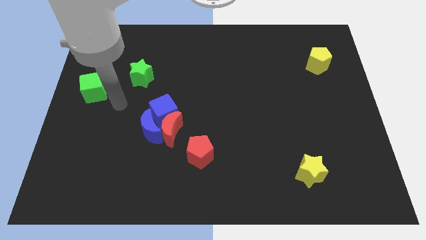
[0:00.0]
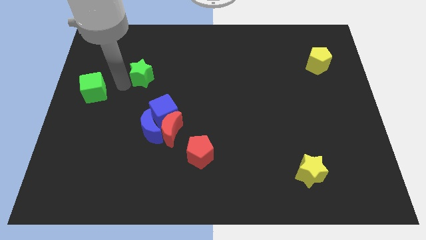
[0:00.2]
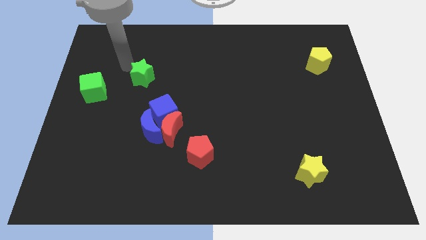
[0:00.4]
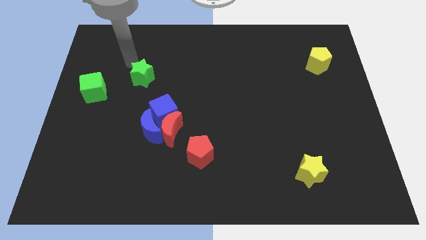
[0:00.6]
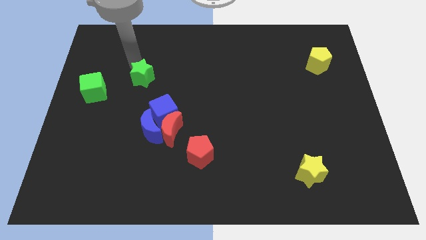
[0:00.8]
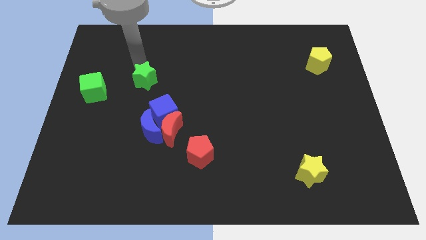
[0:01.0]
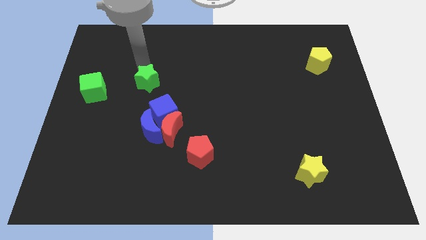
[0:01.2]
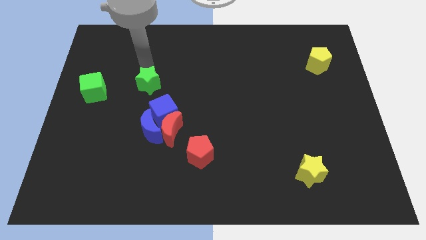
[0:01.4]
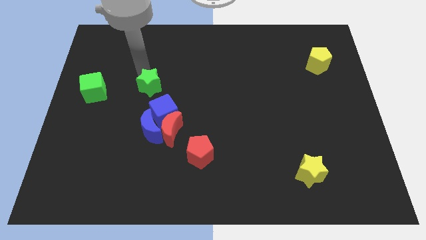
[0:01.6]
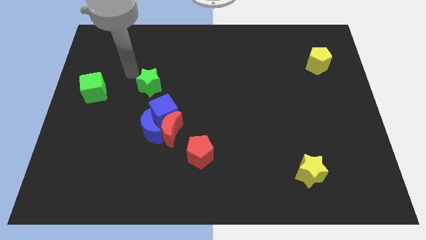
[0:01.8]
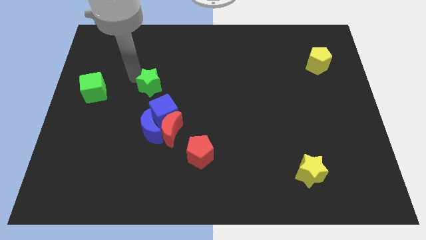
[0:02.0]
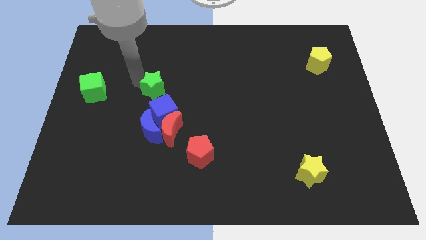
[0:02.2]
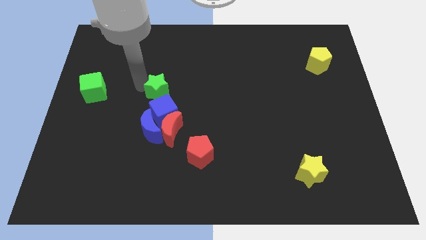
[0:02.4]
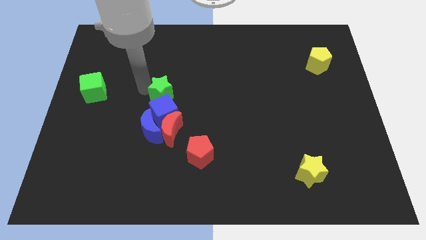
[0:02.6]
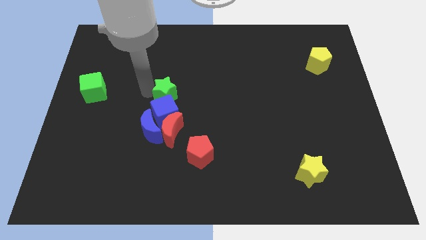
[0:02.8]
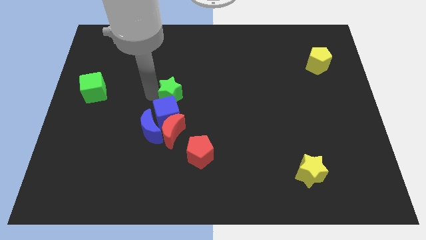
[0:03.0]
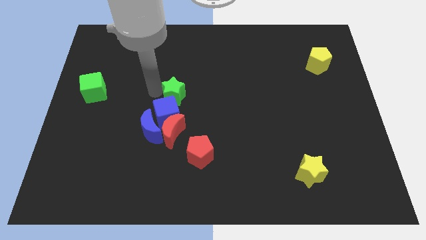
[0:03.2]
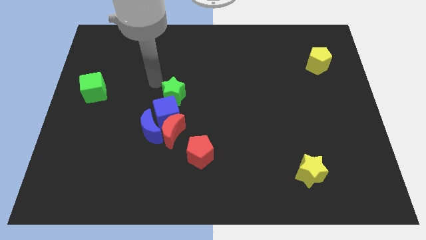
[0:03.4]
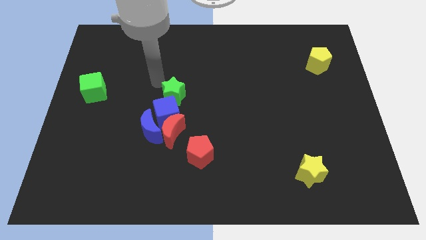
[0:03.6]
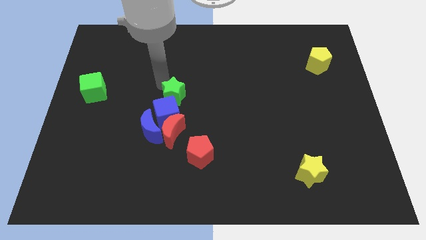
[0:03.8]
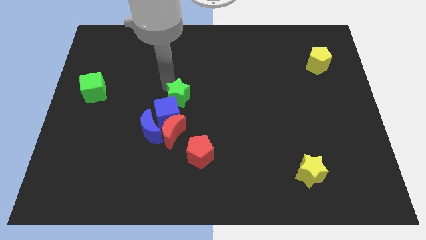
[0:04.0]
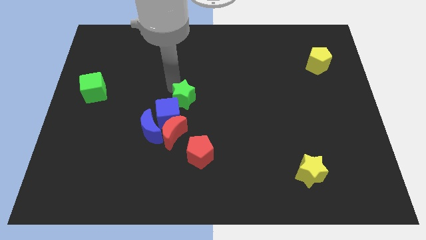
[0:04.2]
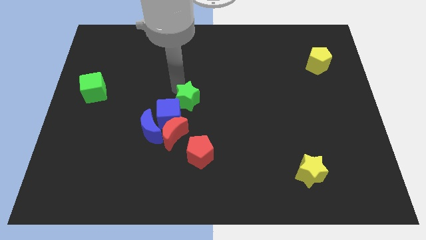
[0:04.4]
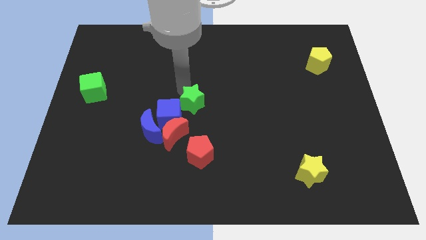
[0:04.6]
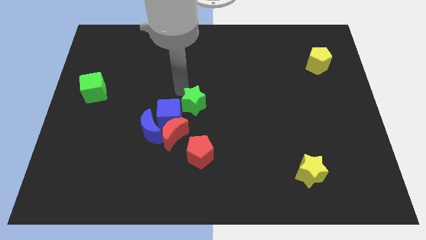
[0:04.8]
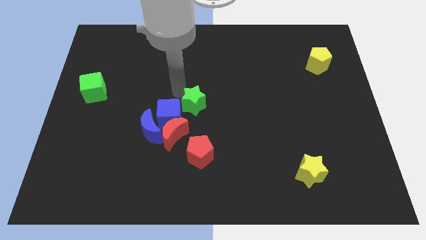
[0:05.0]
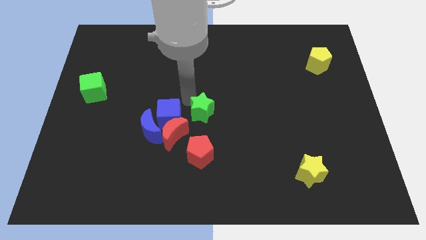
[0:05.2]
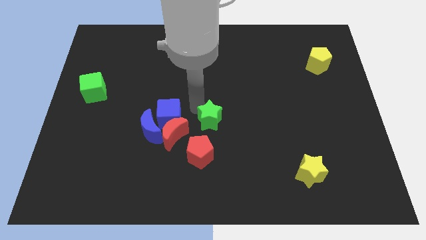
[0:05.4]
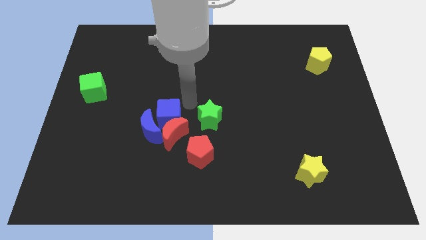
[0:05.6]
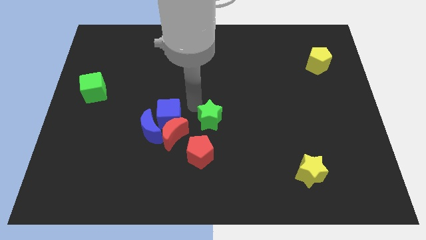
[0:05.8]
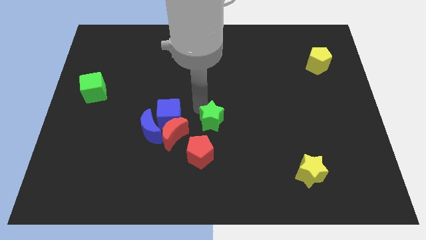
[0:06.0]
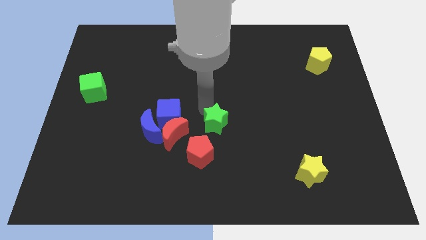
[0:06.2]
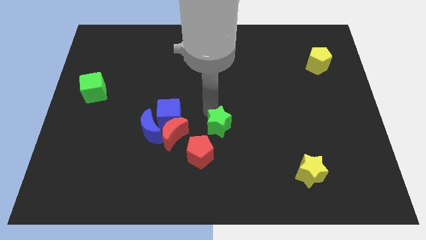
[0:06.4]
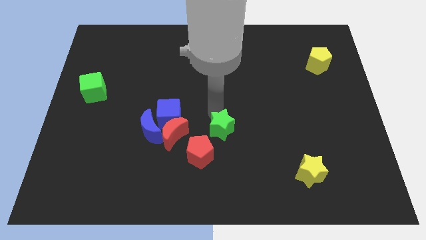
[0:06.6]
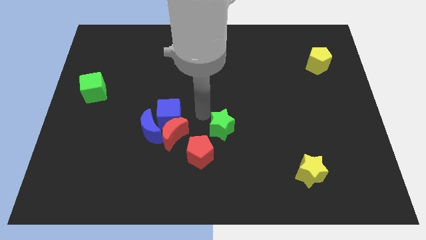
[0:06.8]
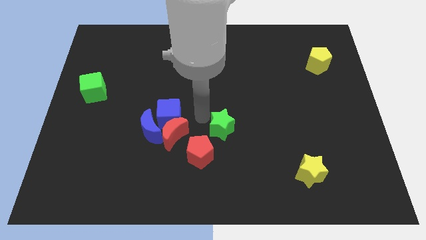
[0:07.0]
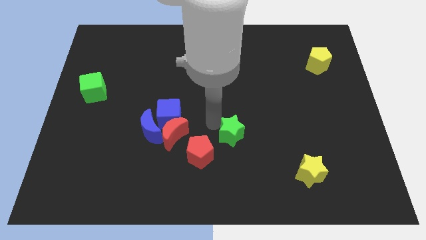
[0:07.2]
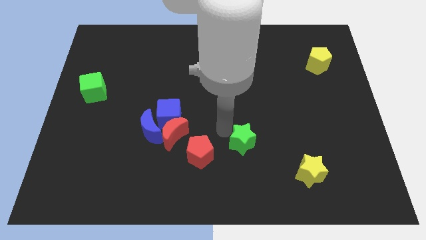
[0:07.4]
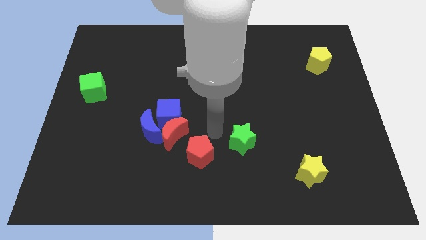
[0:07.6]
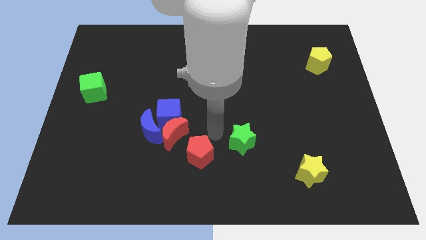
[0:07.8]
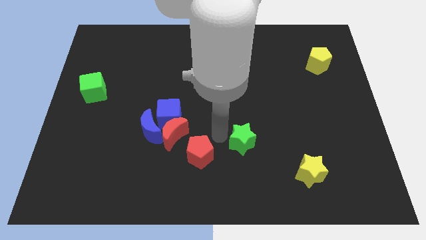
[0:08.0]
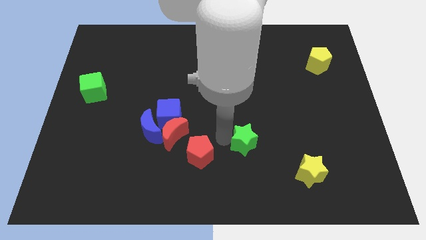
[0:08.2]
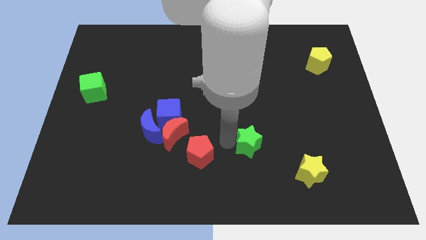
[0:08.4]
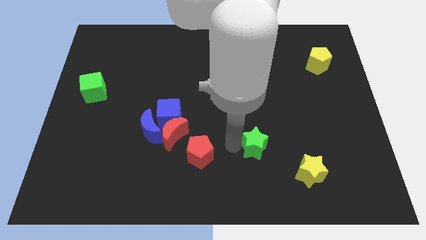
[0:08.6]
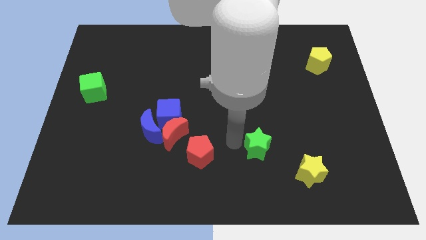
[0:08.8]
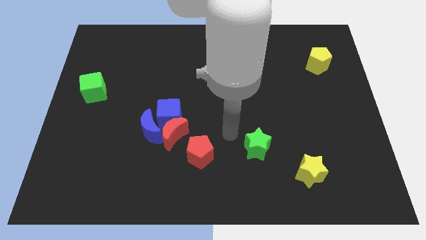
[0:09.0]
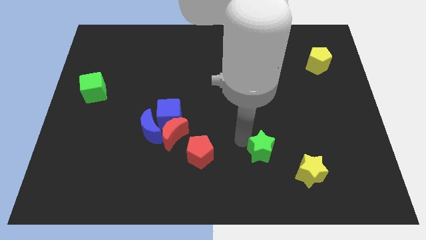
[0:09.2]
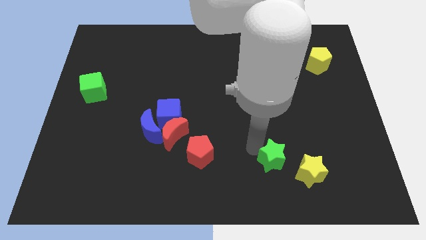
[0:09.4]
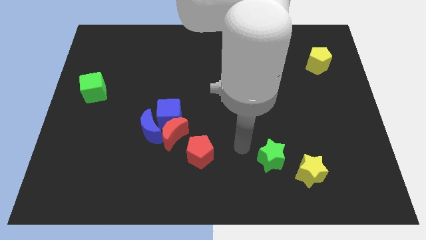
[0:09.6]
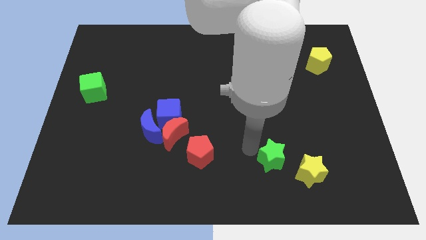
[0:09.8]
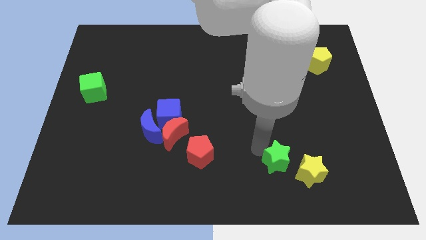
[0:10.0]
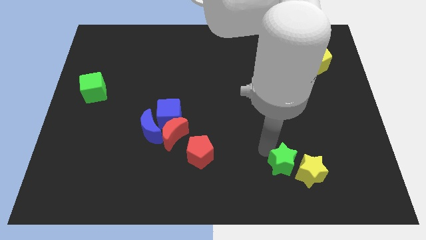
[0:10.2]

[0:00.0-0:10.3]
push the green star next to the yellow star

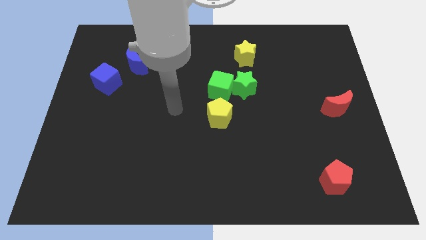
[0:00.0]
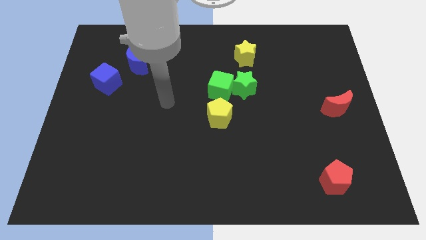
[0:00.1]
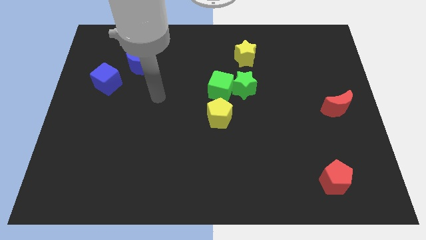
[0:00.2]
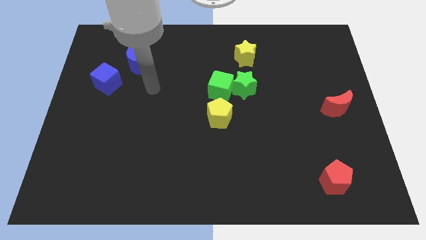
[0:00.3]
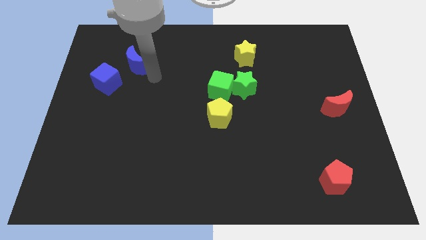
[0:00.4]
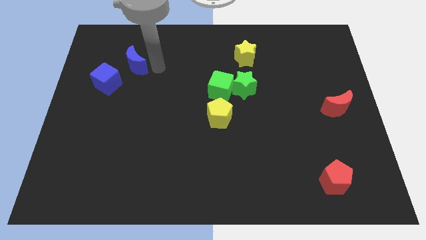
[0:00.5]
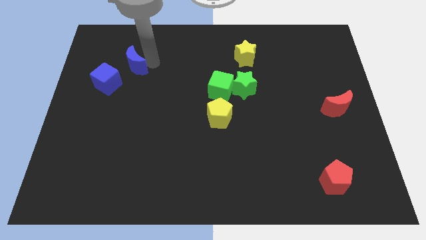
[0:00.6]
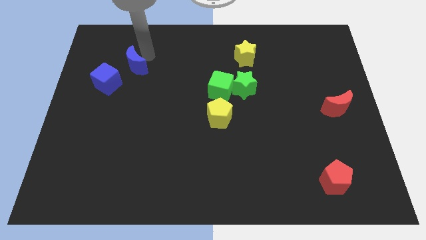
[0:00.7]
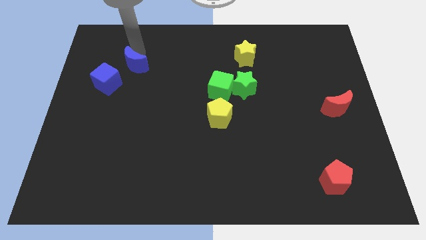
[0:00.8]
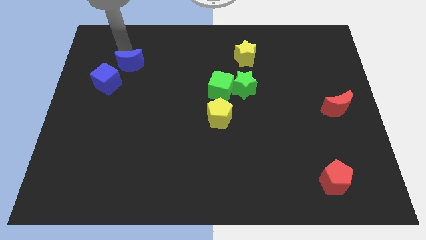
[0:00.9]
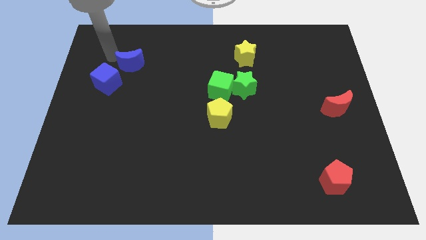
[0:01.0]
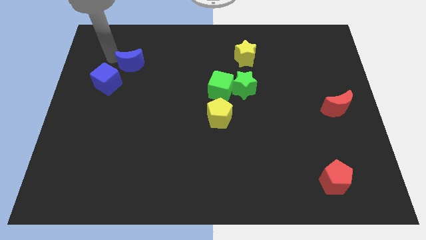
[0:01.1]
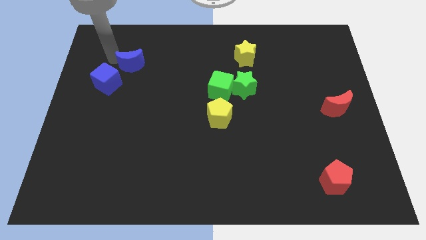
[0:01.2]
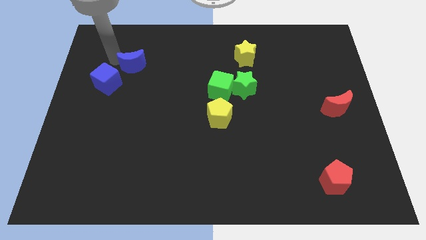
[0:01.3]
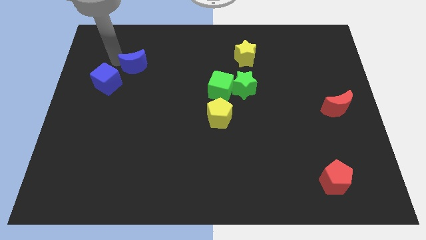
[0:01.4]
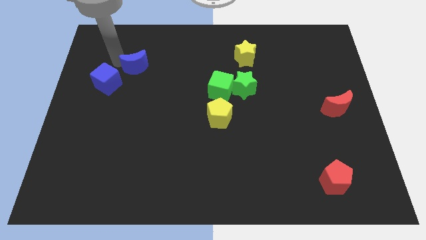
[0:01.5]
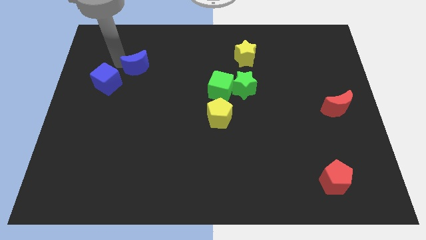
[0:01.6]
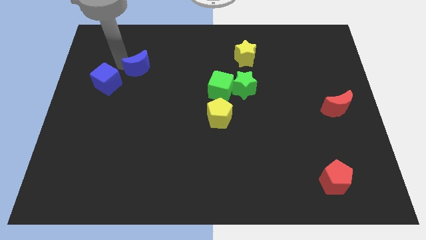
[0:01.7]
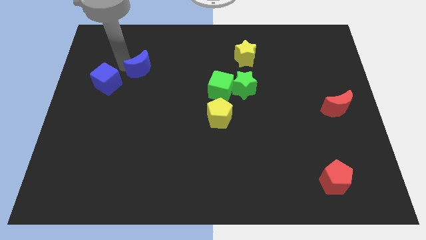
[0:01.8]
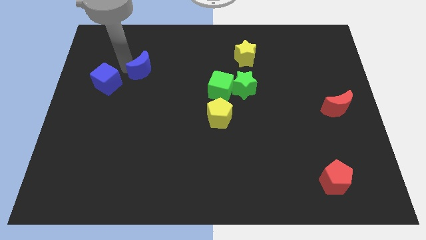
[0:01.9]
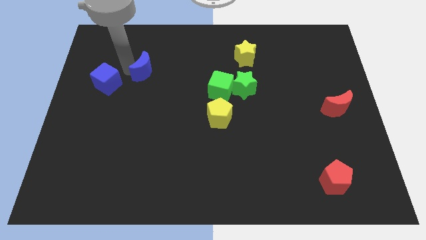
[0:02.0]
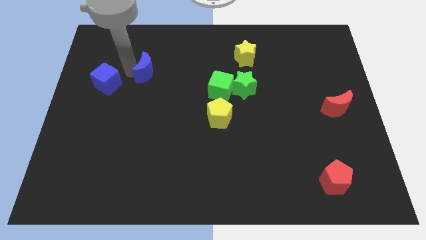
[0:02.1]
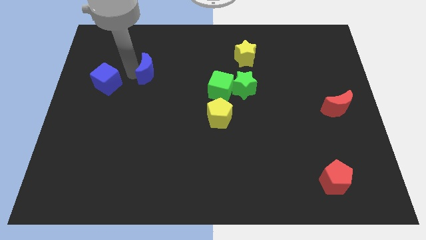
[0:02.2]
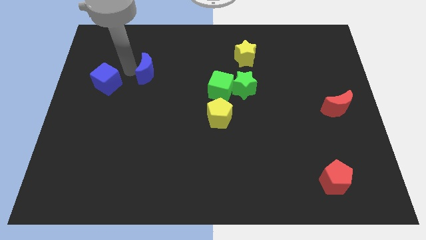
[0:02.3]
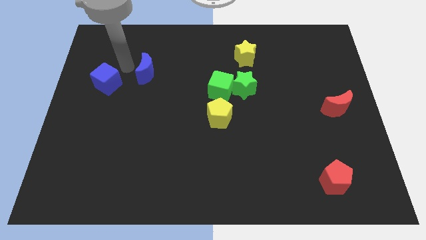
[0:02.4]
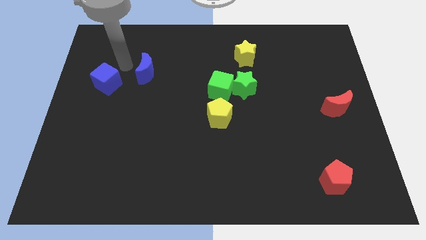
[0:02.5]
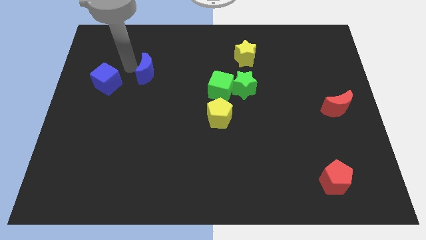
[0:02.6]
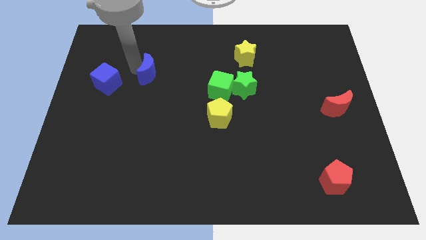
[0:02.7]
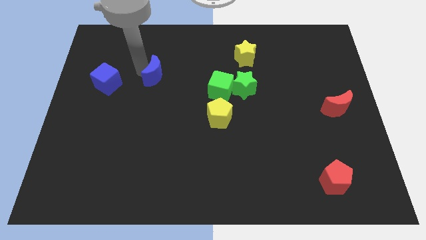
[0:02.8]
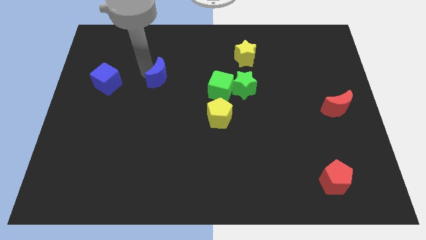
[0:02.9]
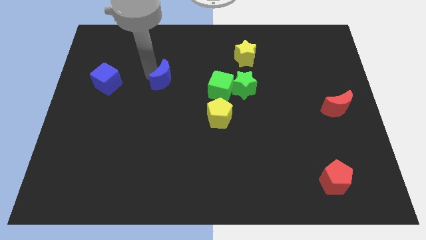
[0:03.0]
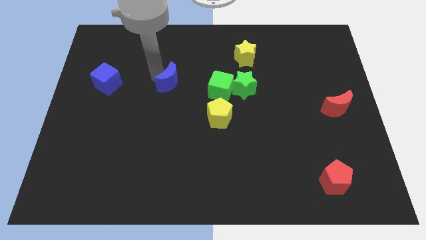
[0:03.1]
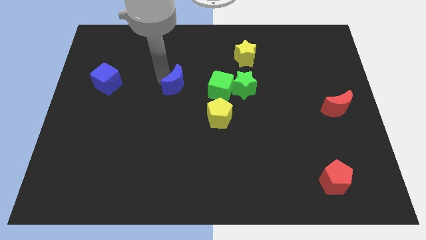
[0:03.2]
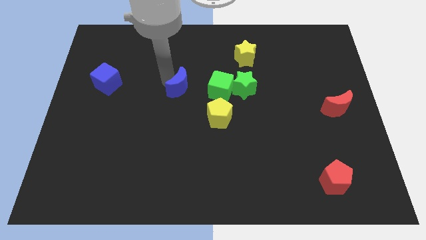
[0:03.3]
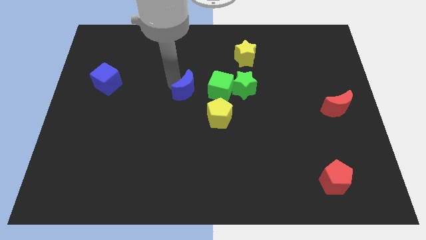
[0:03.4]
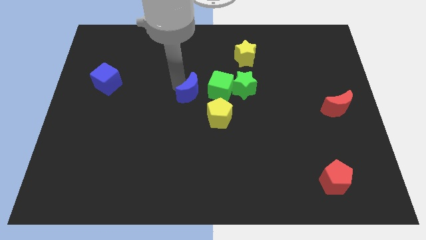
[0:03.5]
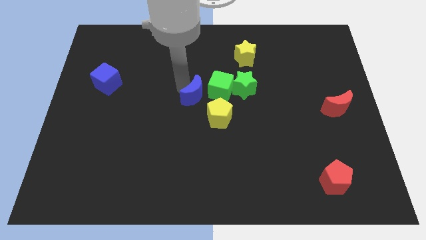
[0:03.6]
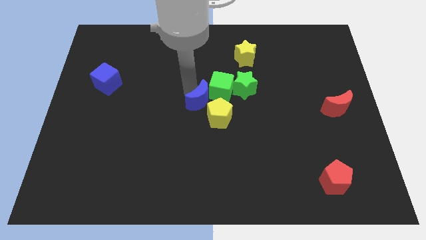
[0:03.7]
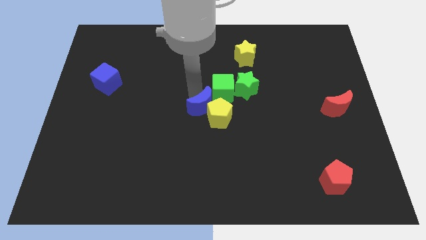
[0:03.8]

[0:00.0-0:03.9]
move the blue moon to the yellow pentagon
